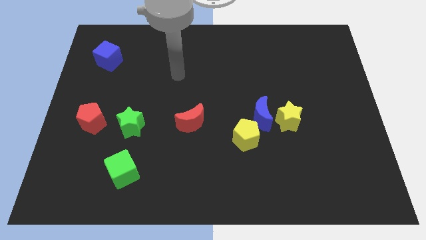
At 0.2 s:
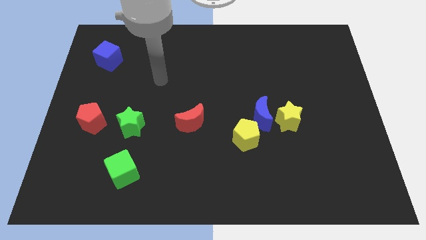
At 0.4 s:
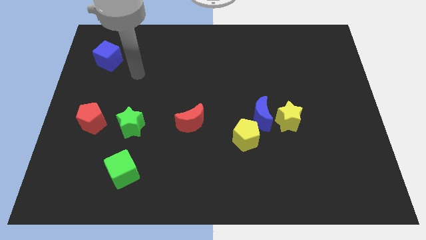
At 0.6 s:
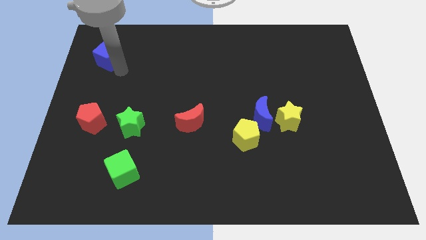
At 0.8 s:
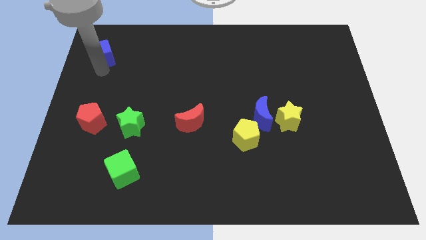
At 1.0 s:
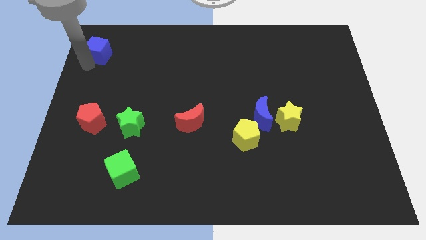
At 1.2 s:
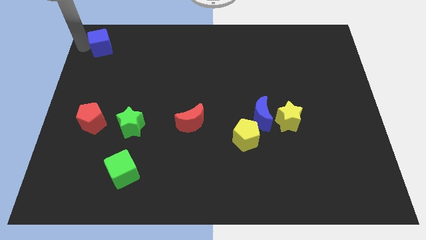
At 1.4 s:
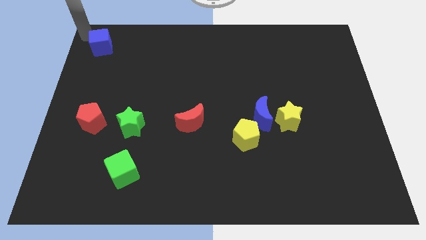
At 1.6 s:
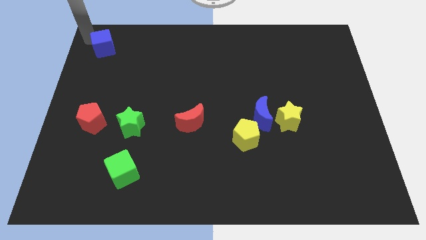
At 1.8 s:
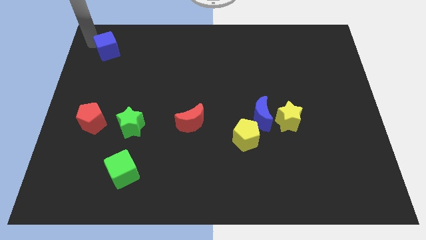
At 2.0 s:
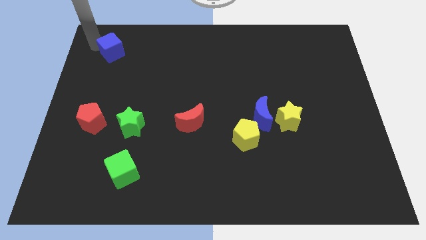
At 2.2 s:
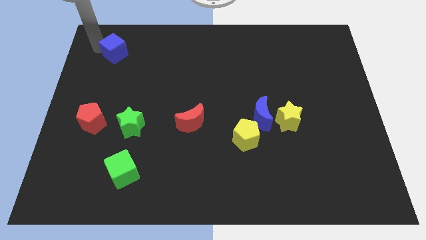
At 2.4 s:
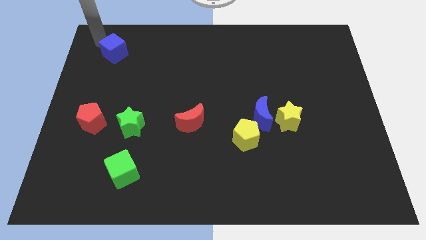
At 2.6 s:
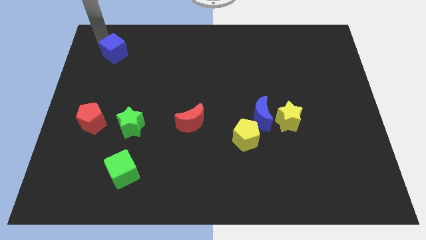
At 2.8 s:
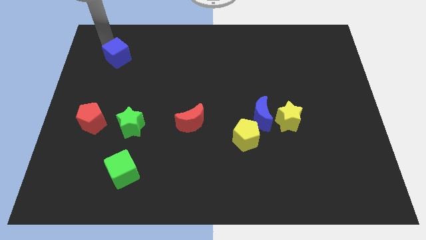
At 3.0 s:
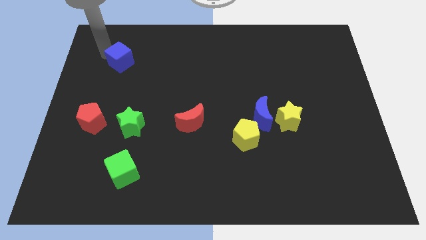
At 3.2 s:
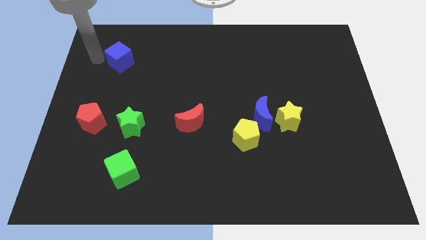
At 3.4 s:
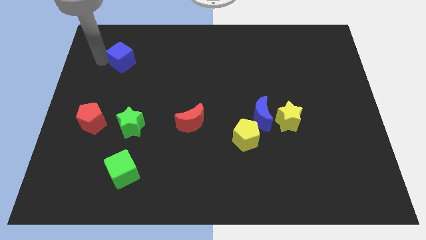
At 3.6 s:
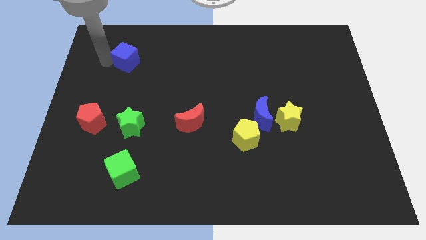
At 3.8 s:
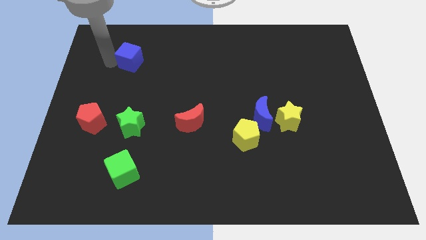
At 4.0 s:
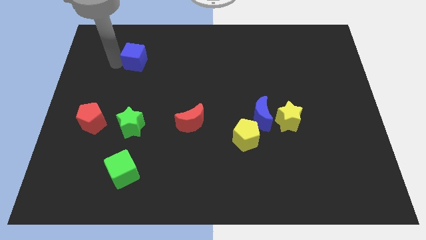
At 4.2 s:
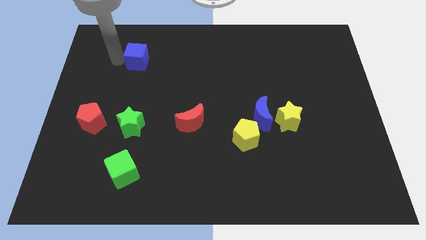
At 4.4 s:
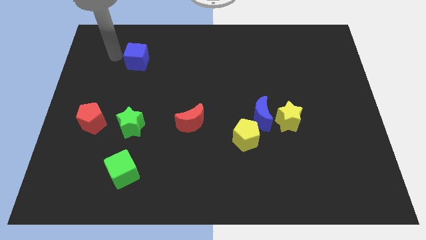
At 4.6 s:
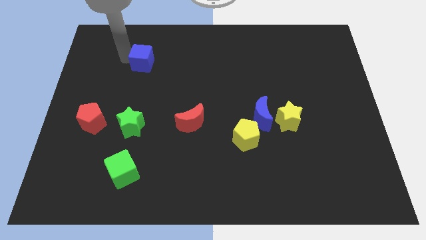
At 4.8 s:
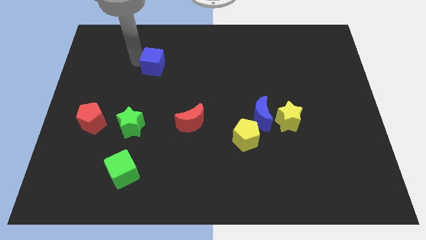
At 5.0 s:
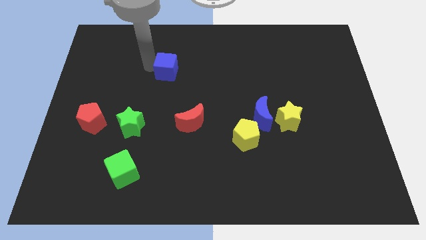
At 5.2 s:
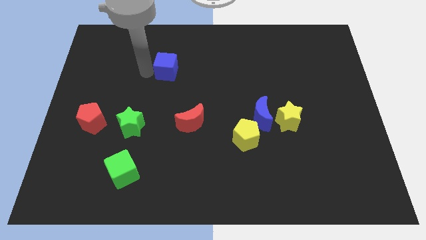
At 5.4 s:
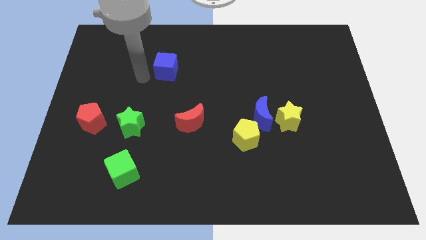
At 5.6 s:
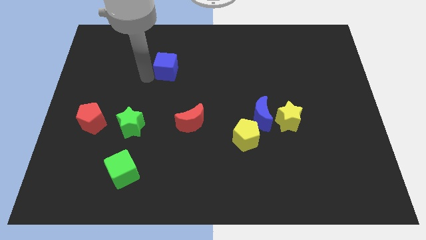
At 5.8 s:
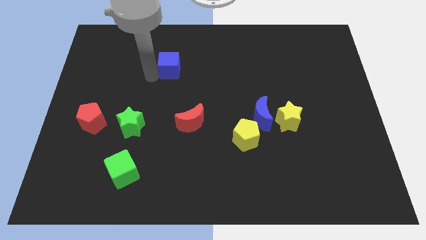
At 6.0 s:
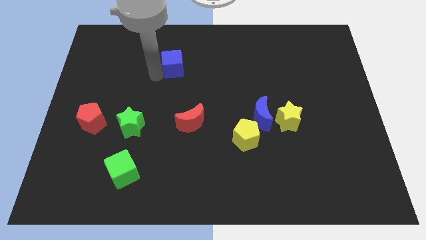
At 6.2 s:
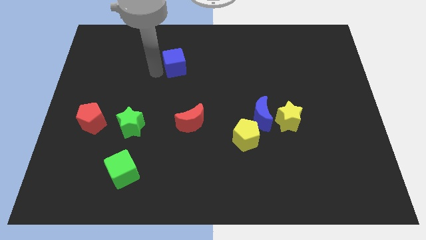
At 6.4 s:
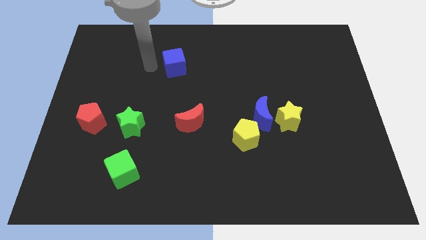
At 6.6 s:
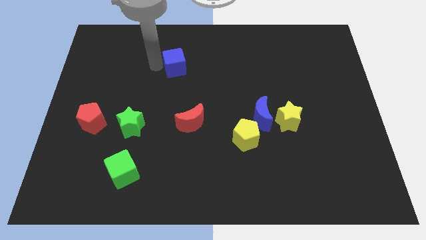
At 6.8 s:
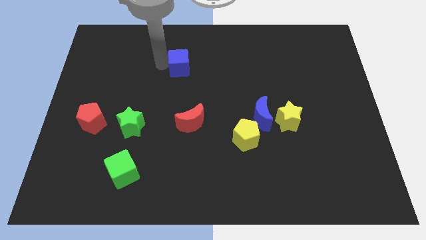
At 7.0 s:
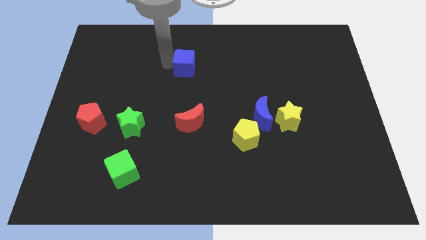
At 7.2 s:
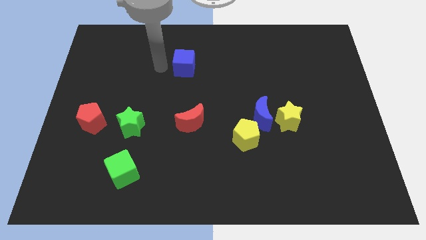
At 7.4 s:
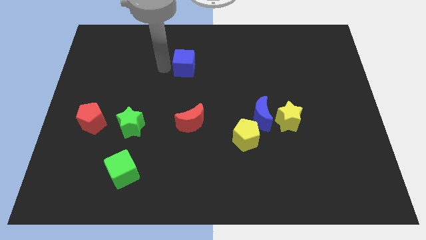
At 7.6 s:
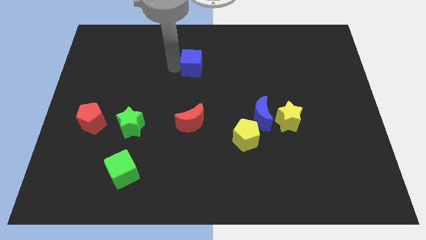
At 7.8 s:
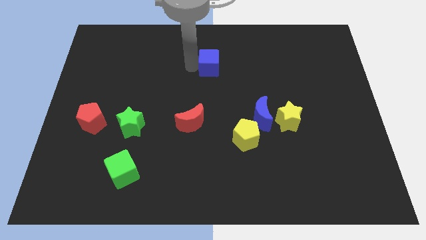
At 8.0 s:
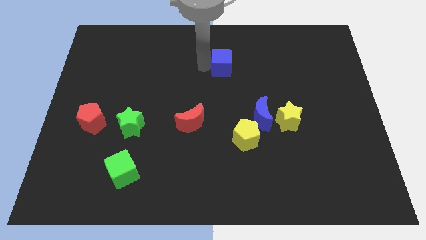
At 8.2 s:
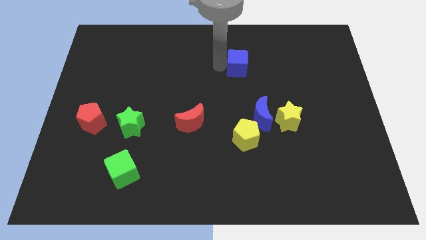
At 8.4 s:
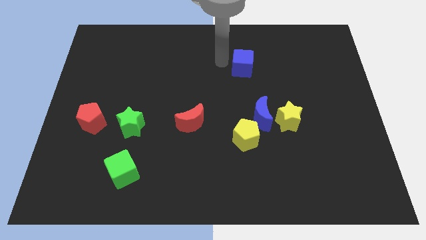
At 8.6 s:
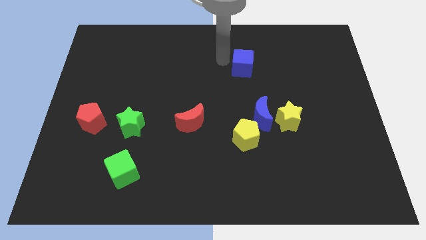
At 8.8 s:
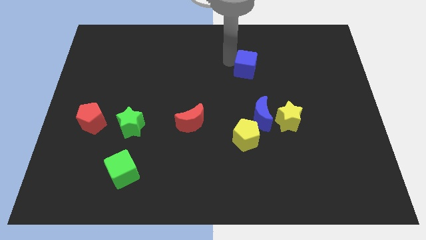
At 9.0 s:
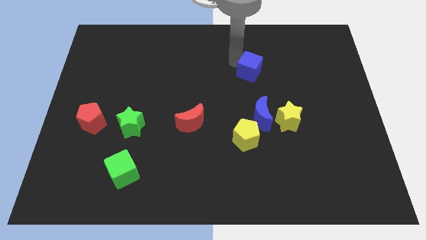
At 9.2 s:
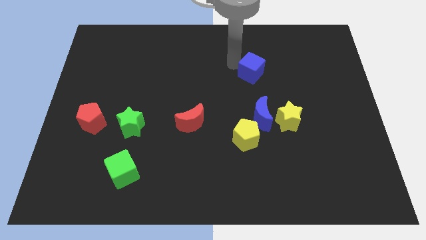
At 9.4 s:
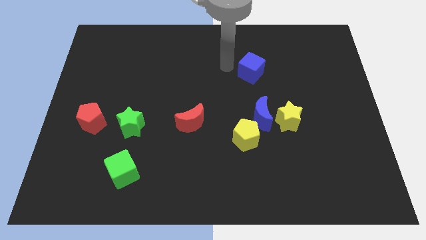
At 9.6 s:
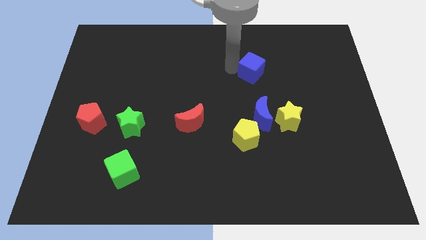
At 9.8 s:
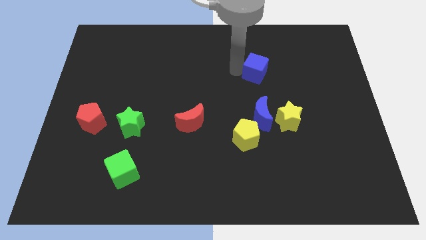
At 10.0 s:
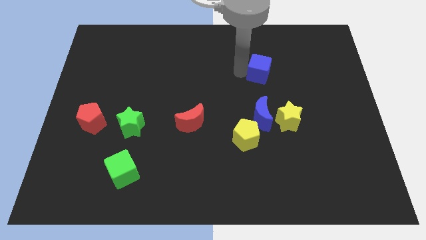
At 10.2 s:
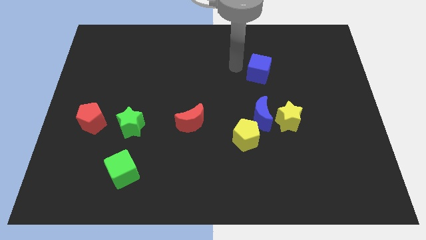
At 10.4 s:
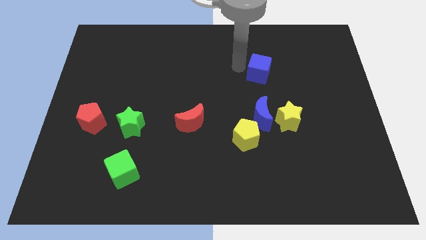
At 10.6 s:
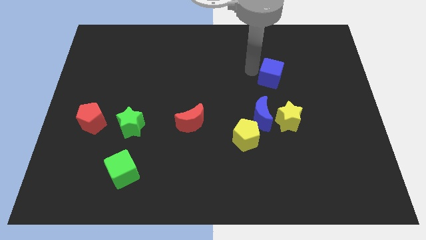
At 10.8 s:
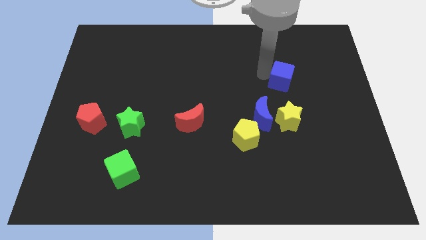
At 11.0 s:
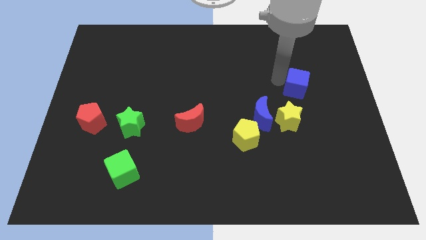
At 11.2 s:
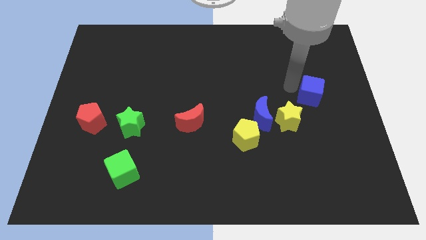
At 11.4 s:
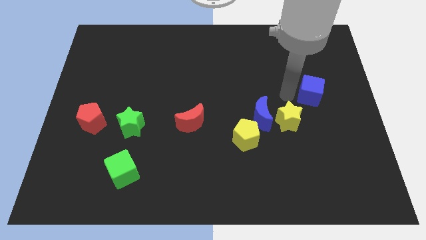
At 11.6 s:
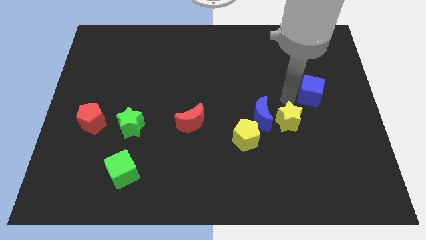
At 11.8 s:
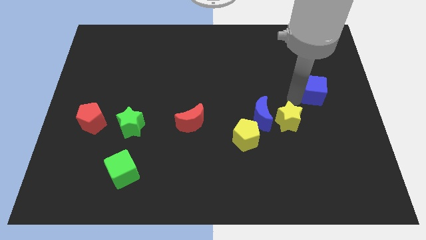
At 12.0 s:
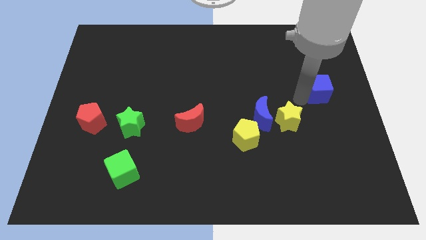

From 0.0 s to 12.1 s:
slide the blue cube to the right side of the board

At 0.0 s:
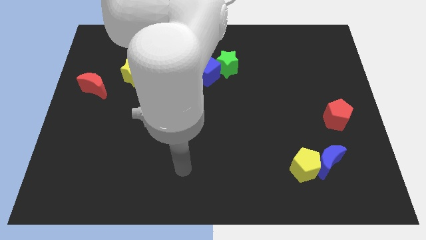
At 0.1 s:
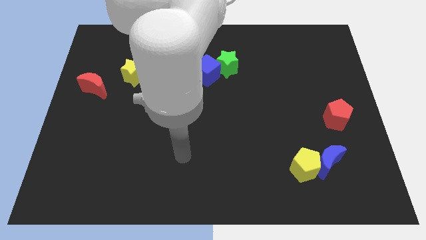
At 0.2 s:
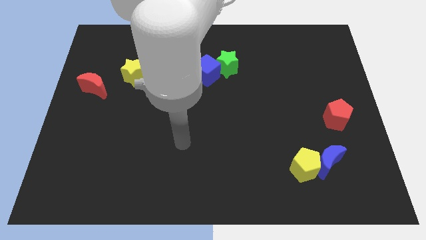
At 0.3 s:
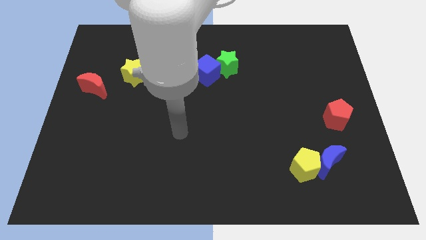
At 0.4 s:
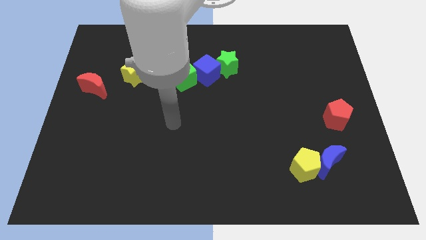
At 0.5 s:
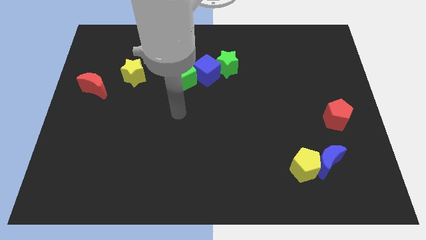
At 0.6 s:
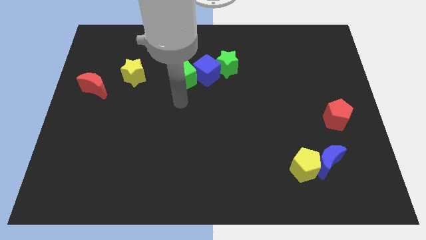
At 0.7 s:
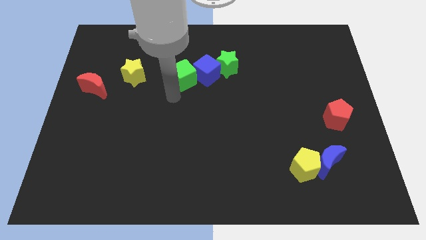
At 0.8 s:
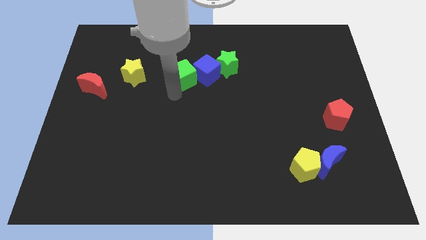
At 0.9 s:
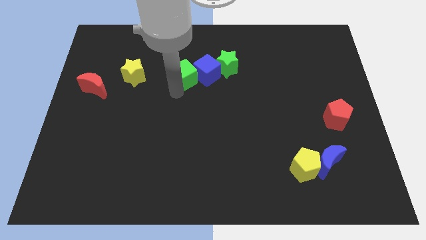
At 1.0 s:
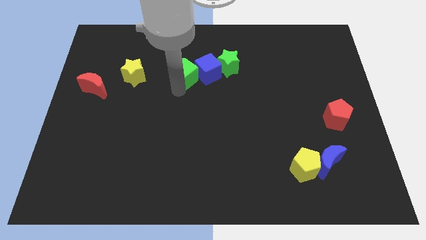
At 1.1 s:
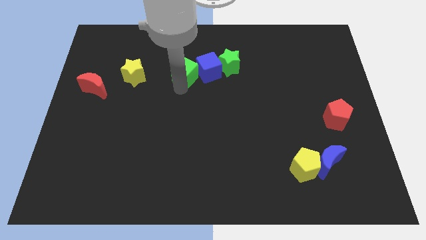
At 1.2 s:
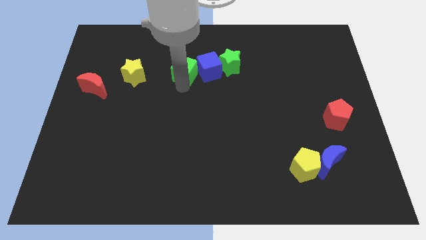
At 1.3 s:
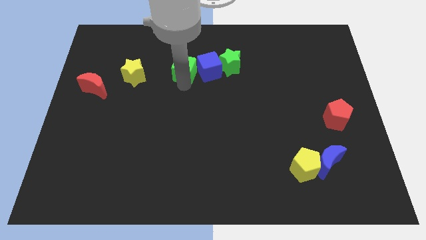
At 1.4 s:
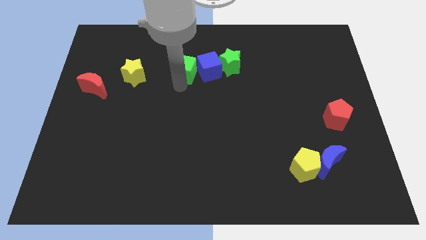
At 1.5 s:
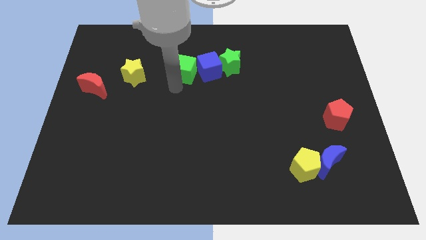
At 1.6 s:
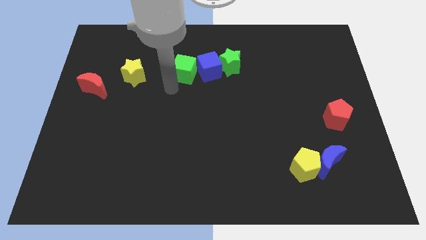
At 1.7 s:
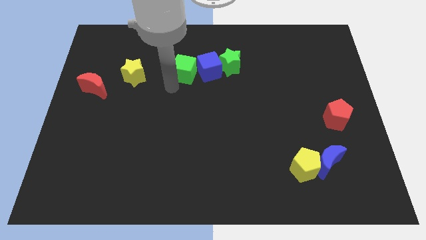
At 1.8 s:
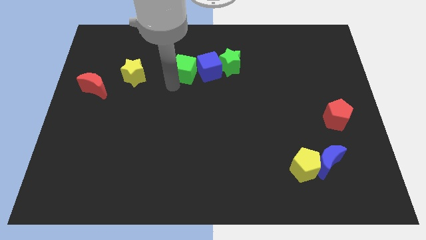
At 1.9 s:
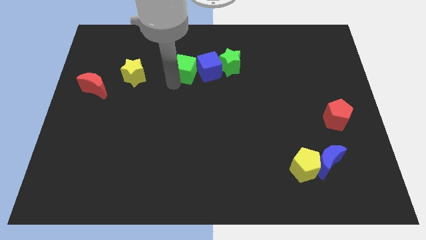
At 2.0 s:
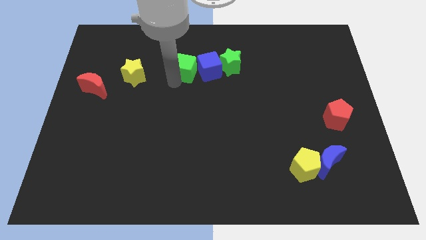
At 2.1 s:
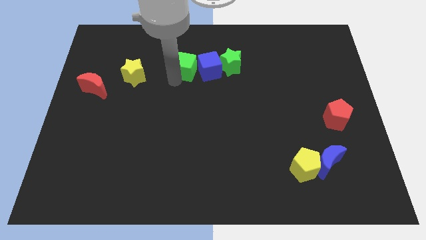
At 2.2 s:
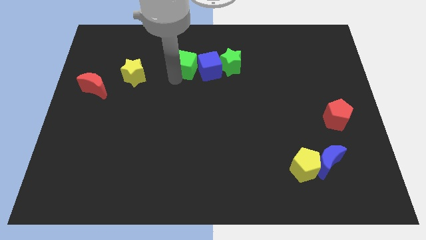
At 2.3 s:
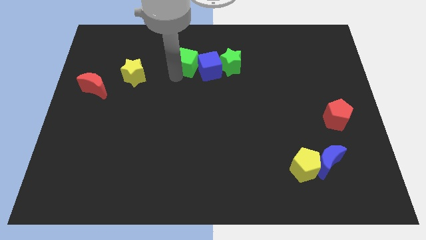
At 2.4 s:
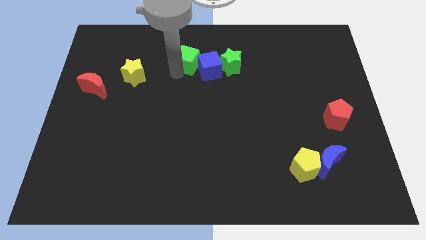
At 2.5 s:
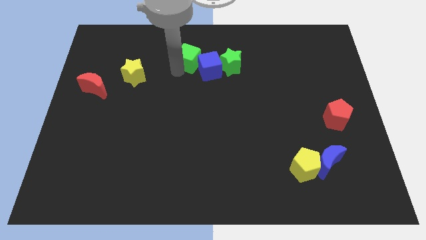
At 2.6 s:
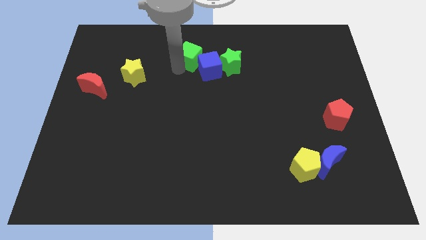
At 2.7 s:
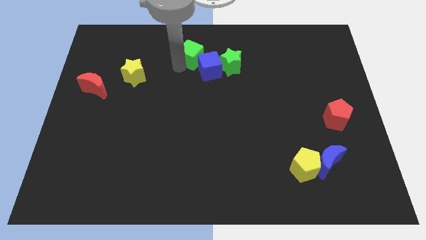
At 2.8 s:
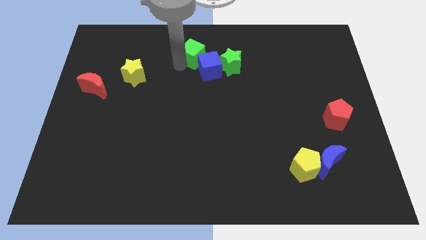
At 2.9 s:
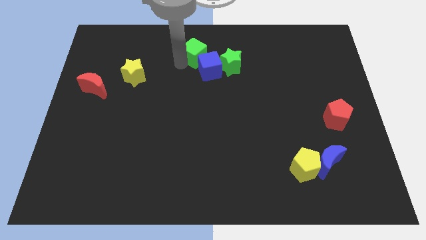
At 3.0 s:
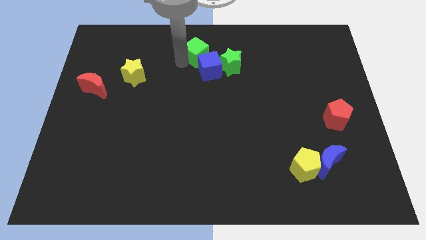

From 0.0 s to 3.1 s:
slide the green cube to the towards your base
